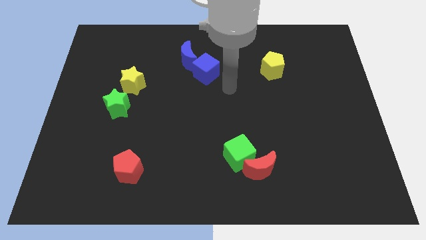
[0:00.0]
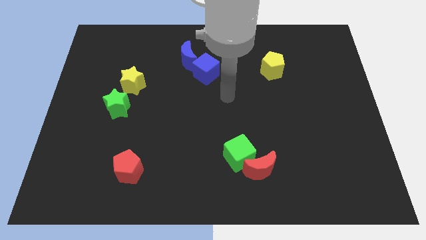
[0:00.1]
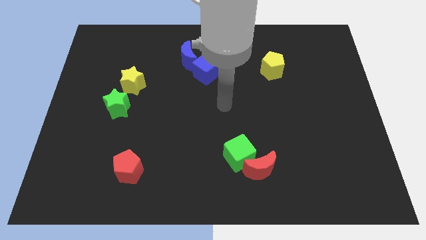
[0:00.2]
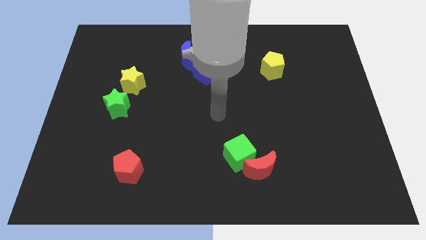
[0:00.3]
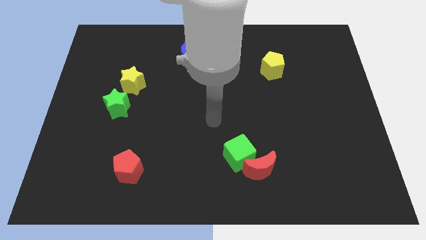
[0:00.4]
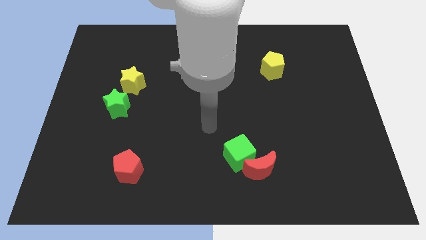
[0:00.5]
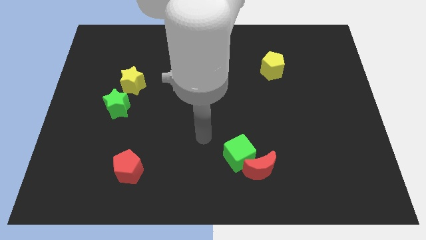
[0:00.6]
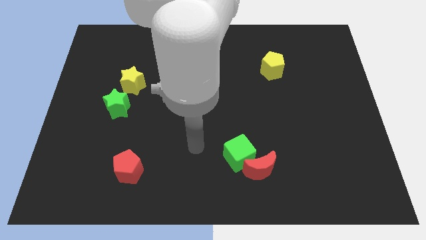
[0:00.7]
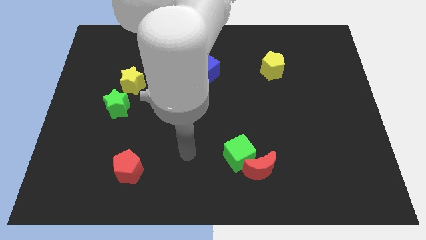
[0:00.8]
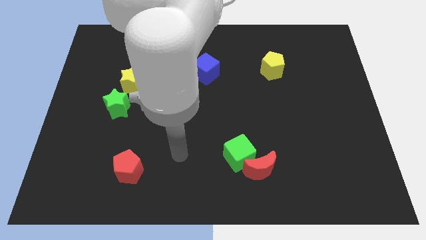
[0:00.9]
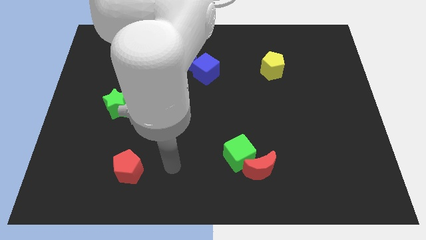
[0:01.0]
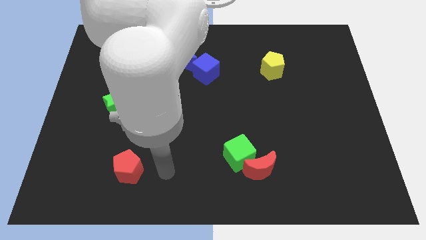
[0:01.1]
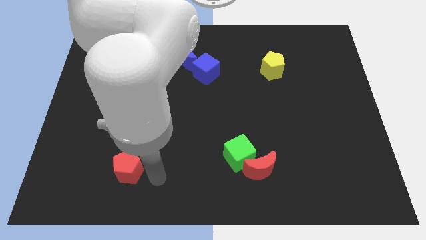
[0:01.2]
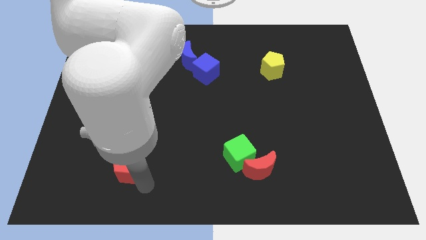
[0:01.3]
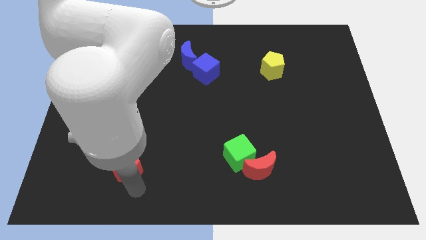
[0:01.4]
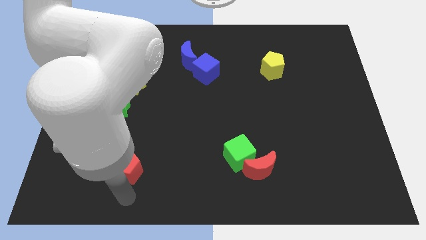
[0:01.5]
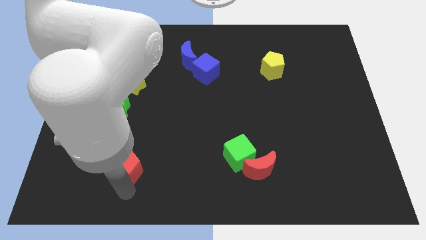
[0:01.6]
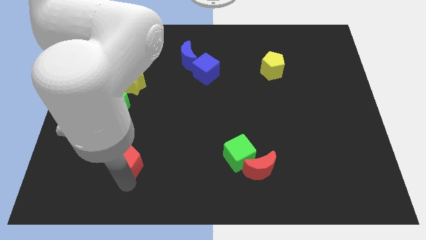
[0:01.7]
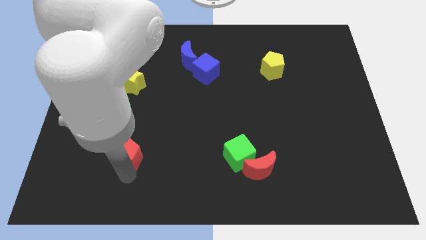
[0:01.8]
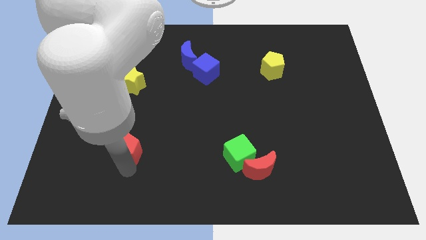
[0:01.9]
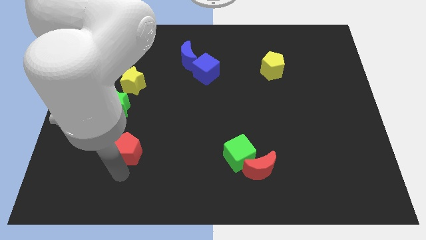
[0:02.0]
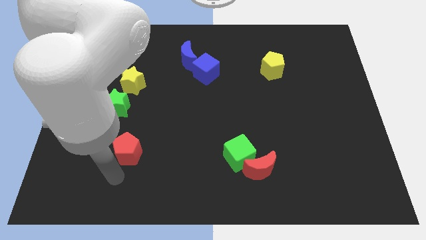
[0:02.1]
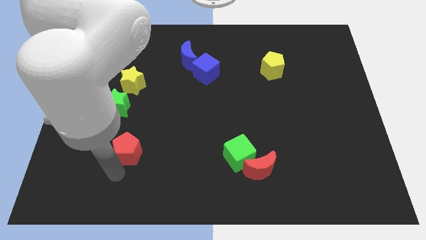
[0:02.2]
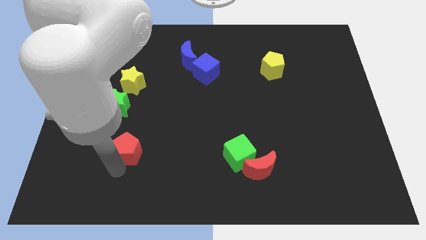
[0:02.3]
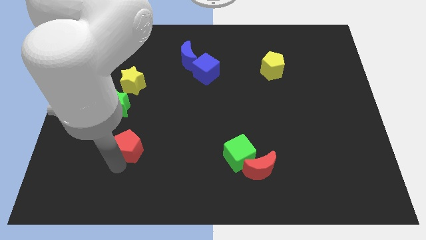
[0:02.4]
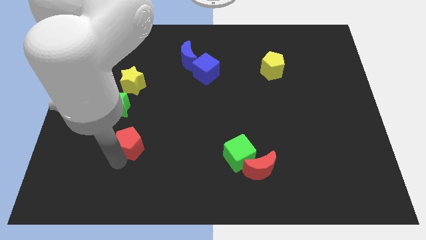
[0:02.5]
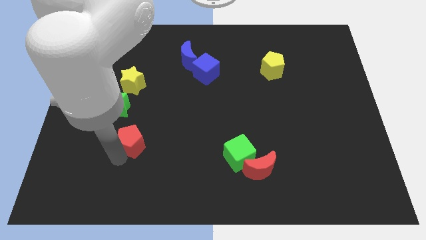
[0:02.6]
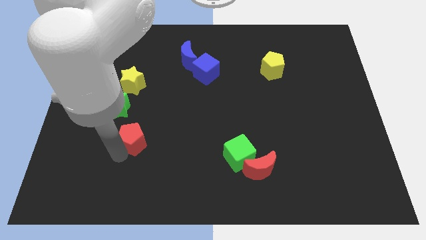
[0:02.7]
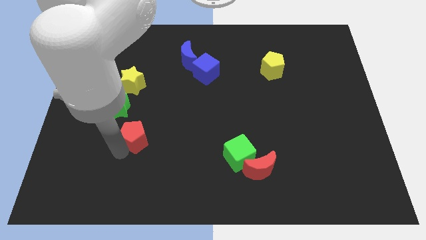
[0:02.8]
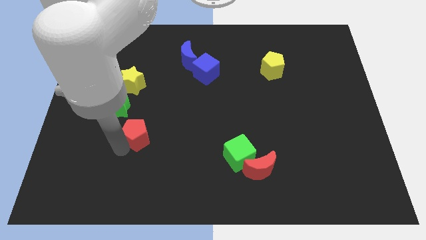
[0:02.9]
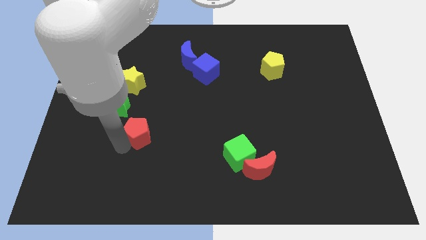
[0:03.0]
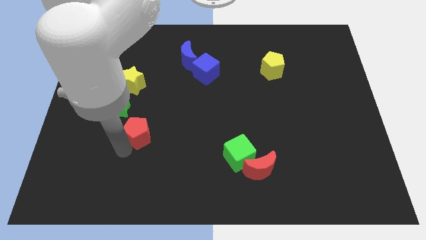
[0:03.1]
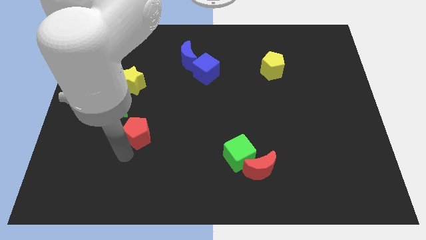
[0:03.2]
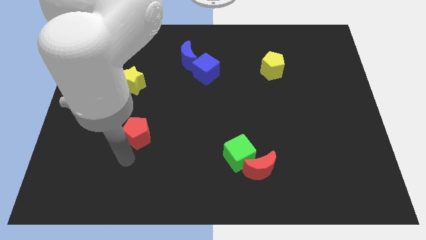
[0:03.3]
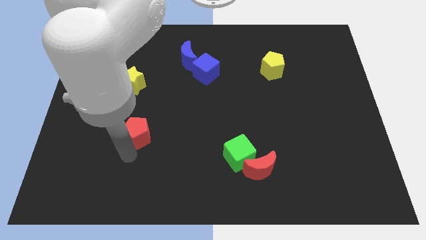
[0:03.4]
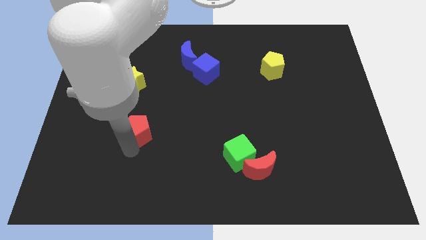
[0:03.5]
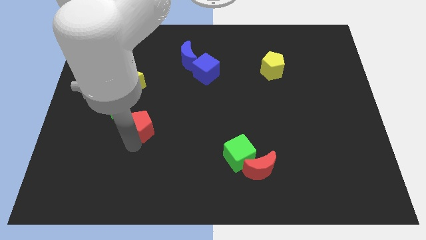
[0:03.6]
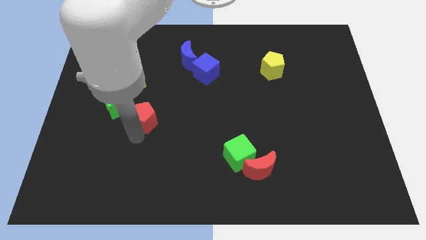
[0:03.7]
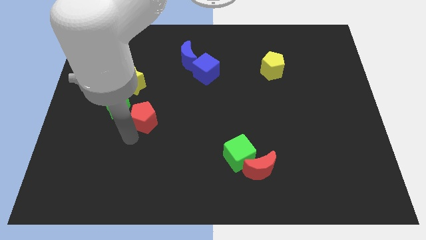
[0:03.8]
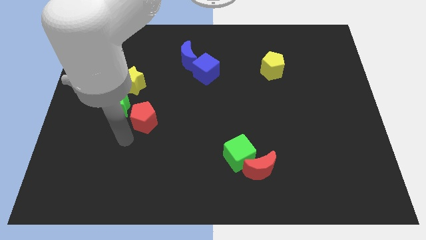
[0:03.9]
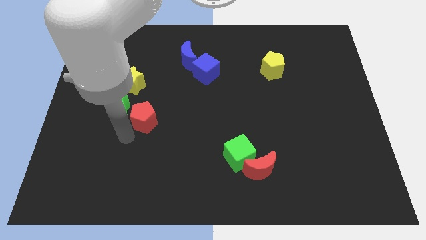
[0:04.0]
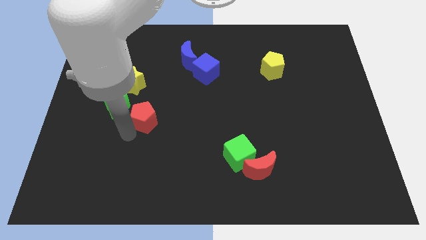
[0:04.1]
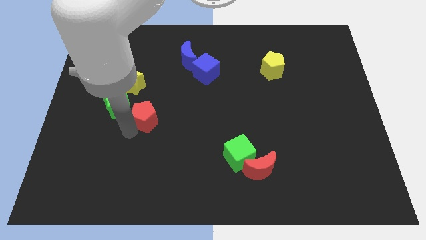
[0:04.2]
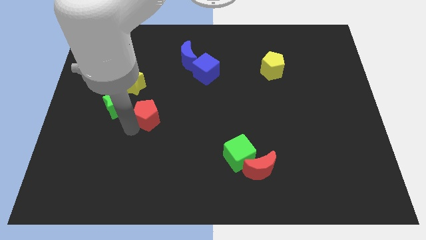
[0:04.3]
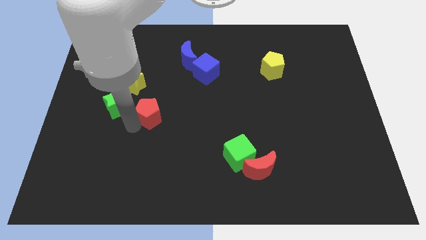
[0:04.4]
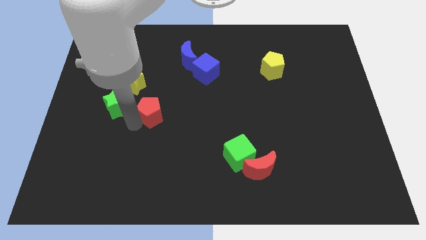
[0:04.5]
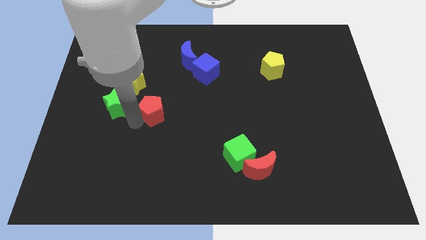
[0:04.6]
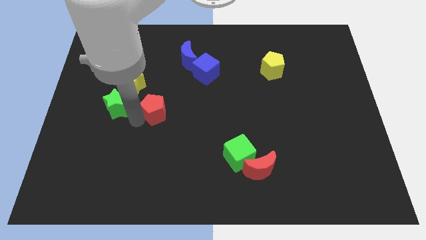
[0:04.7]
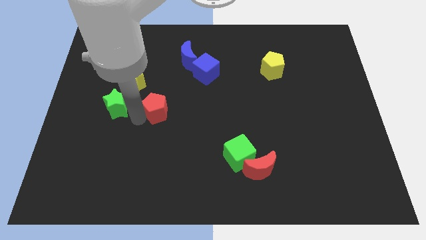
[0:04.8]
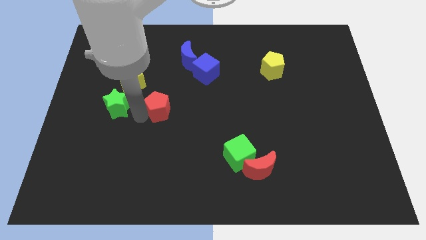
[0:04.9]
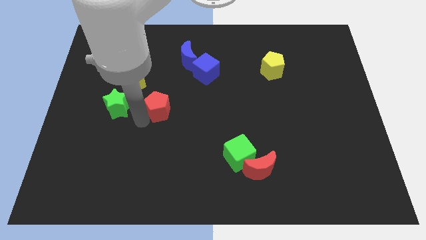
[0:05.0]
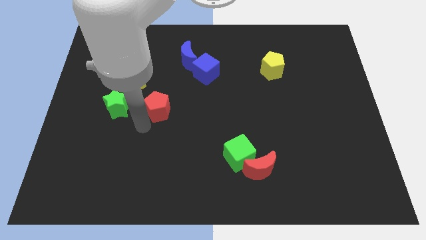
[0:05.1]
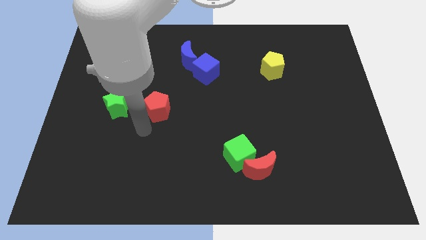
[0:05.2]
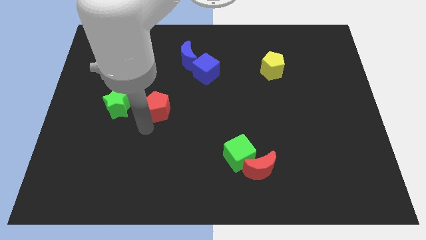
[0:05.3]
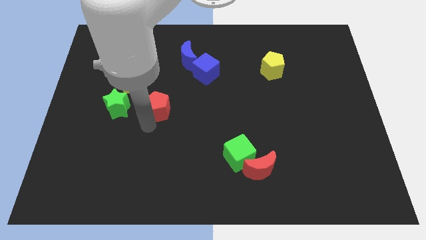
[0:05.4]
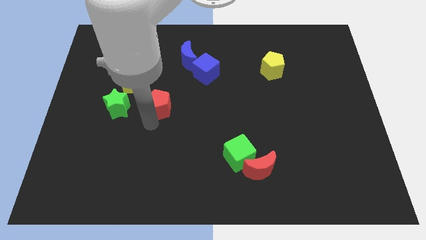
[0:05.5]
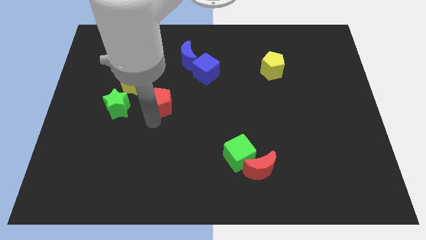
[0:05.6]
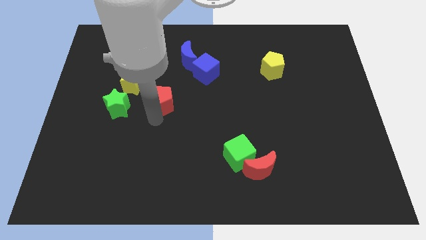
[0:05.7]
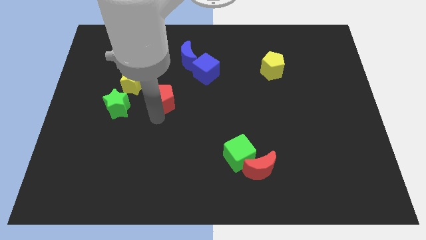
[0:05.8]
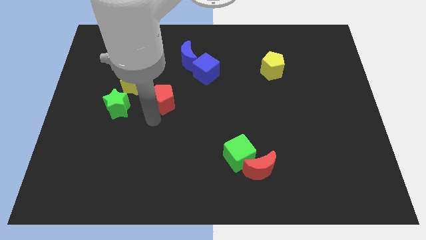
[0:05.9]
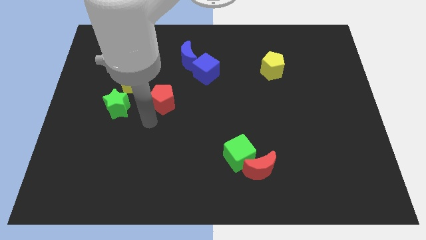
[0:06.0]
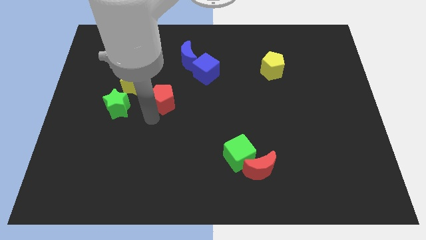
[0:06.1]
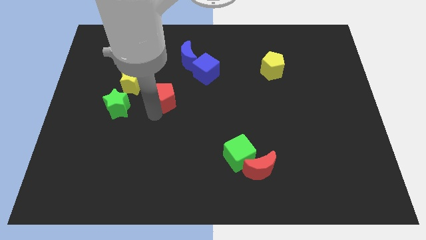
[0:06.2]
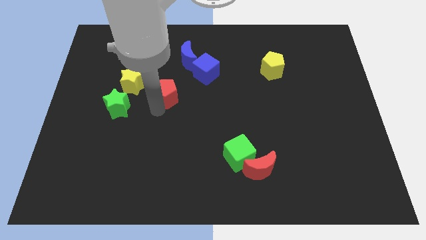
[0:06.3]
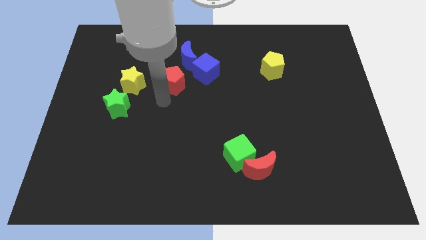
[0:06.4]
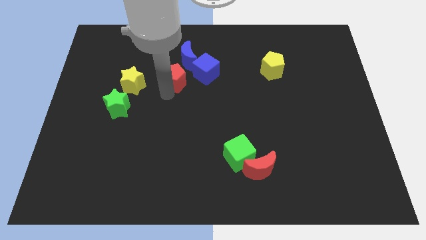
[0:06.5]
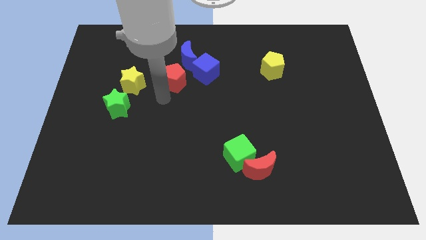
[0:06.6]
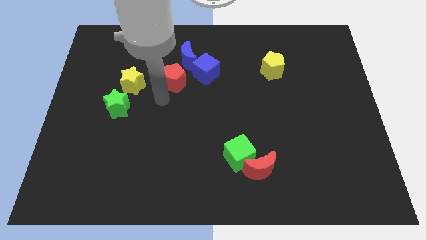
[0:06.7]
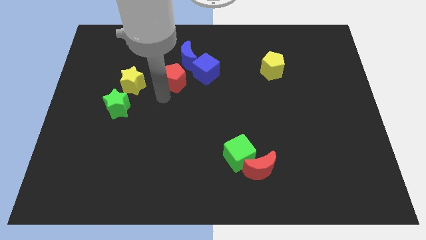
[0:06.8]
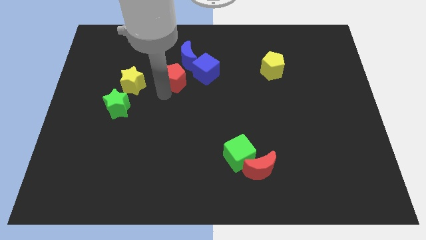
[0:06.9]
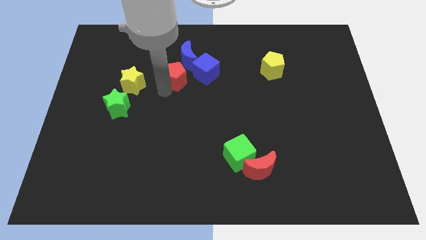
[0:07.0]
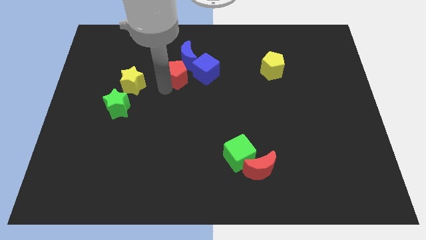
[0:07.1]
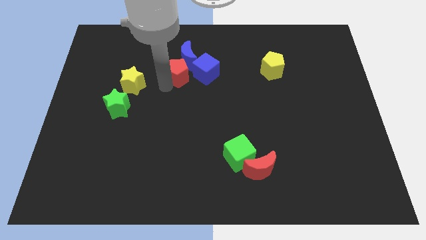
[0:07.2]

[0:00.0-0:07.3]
put the red pentagon towards the blue moon
